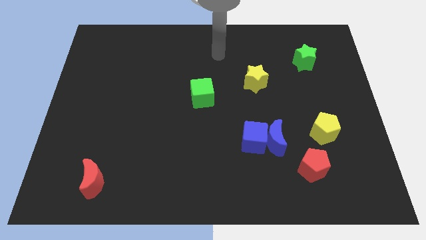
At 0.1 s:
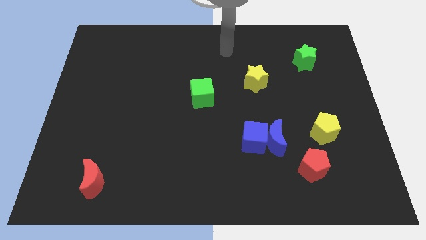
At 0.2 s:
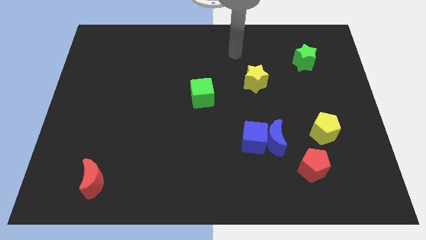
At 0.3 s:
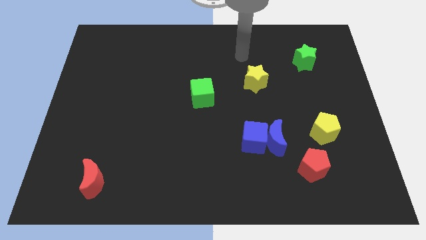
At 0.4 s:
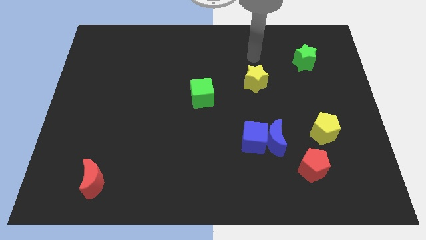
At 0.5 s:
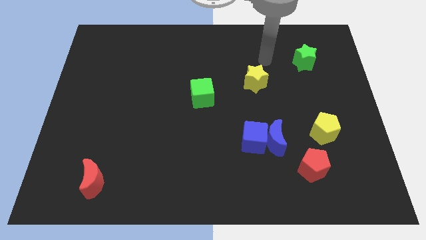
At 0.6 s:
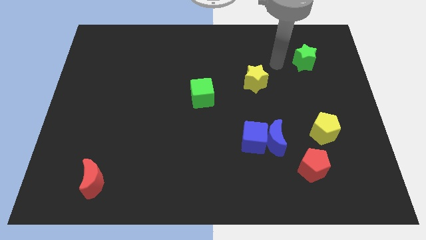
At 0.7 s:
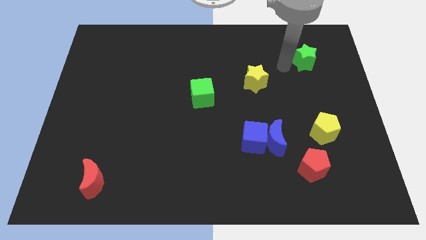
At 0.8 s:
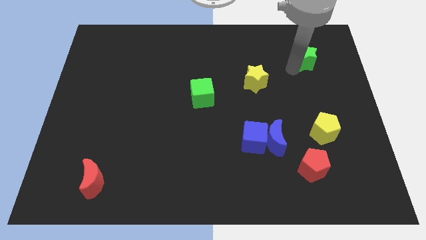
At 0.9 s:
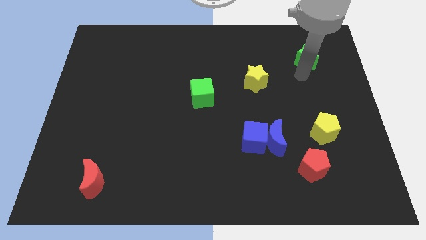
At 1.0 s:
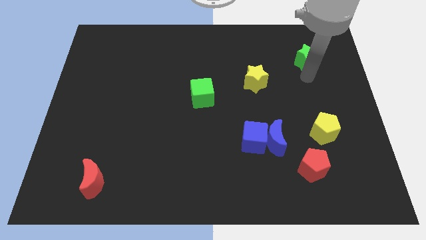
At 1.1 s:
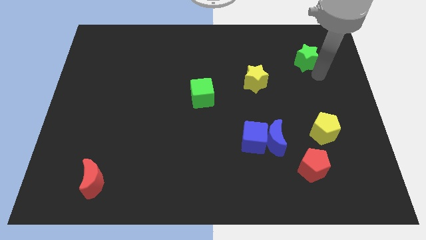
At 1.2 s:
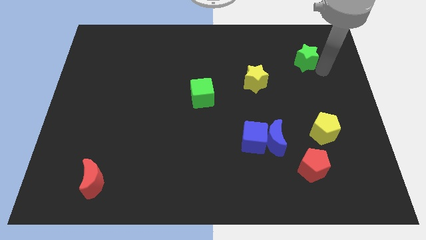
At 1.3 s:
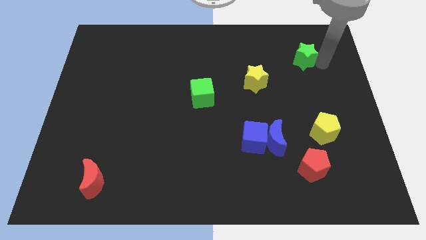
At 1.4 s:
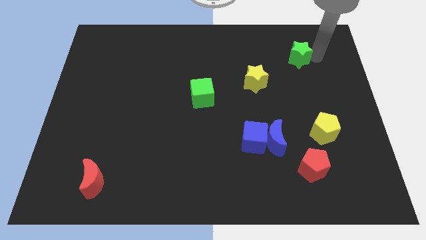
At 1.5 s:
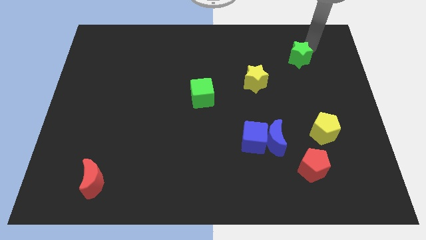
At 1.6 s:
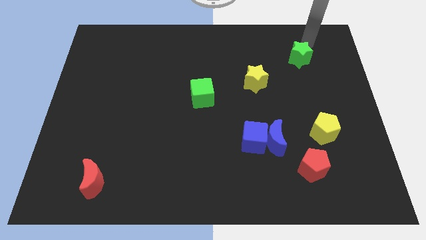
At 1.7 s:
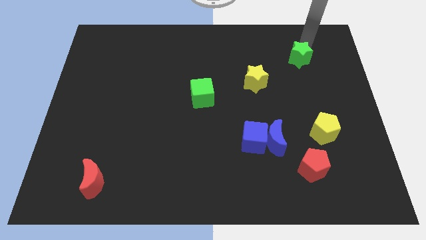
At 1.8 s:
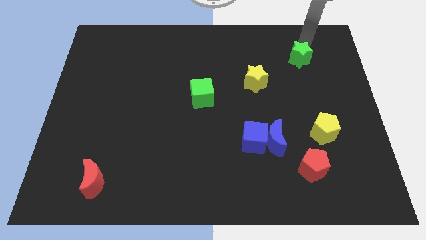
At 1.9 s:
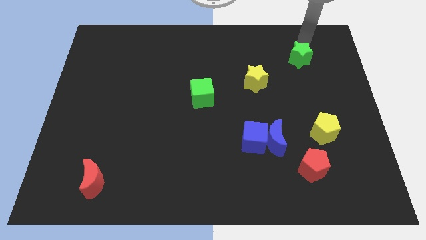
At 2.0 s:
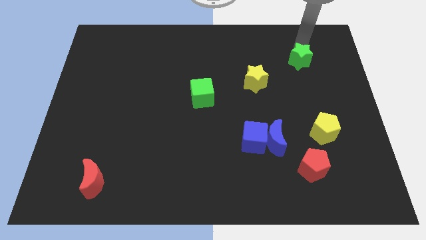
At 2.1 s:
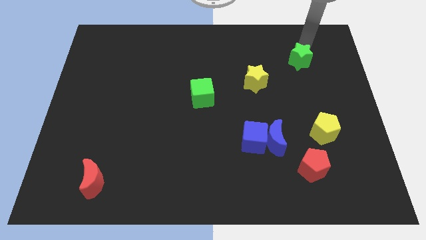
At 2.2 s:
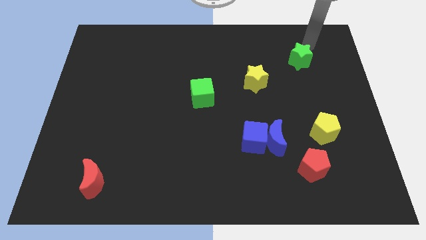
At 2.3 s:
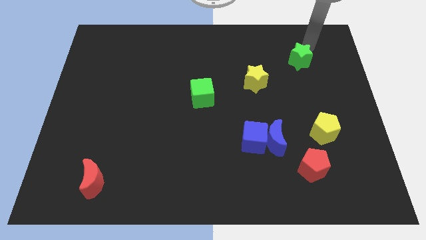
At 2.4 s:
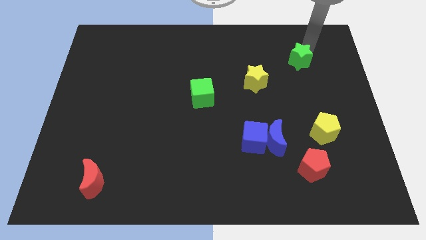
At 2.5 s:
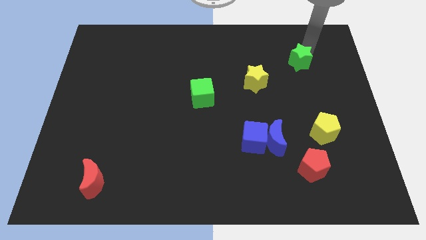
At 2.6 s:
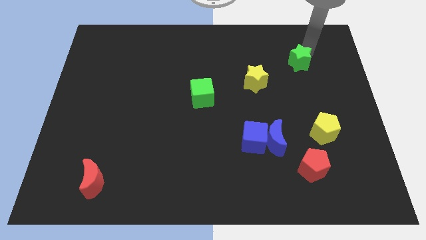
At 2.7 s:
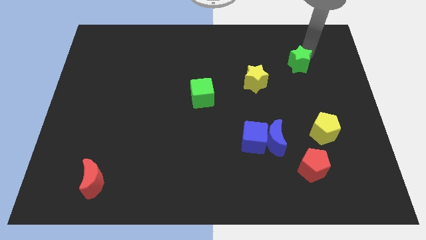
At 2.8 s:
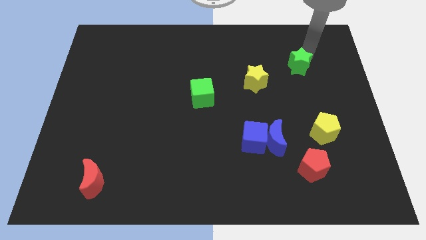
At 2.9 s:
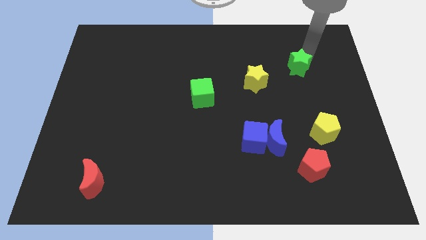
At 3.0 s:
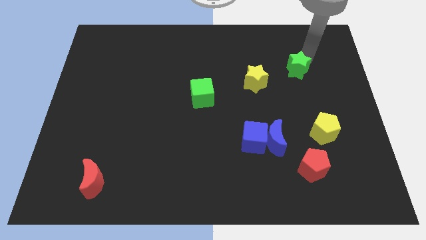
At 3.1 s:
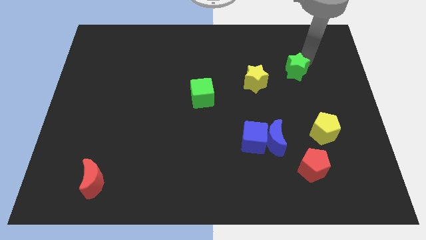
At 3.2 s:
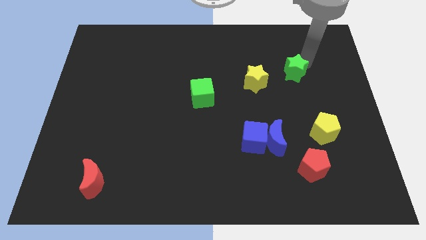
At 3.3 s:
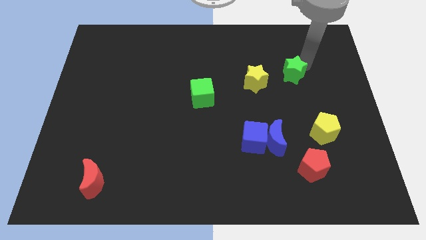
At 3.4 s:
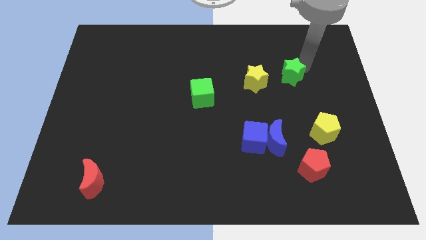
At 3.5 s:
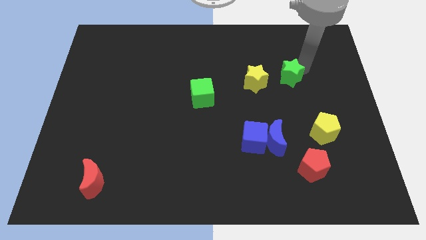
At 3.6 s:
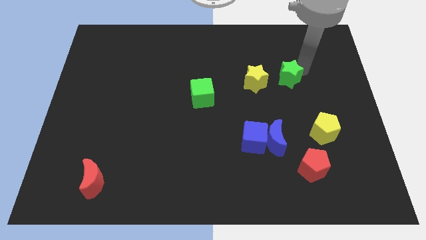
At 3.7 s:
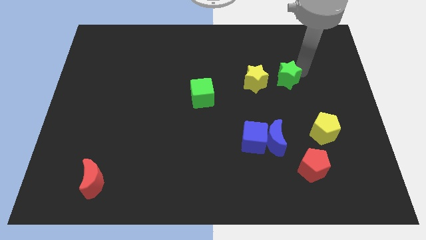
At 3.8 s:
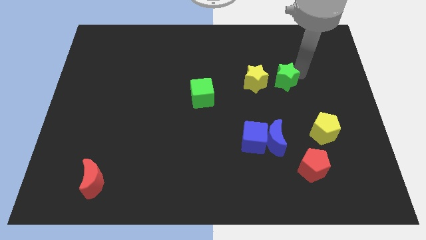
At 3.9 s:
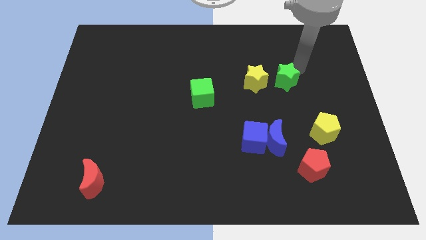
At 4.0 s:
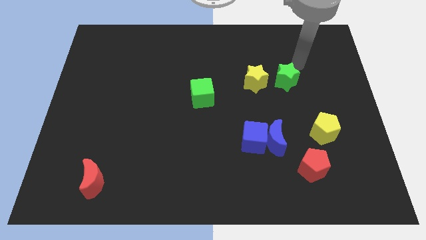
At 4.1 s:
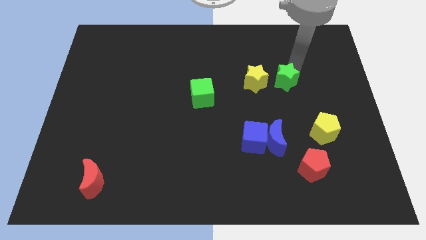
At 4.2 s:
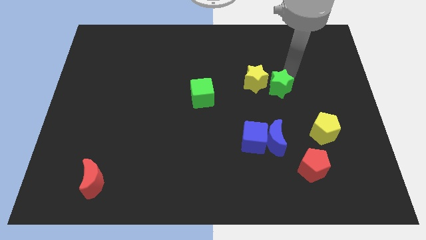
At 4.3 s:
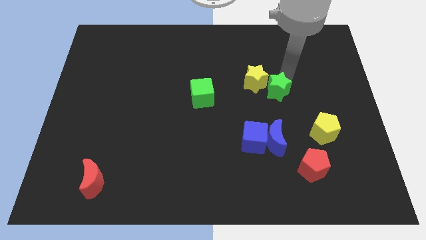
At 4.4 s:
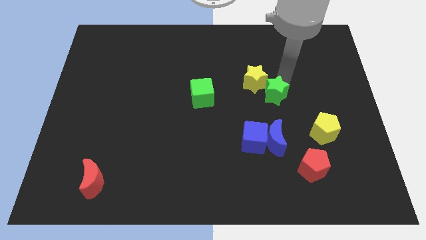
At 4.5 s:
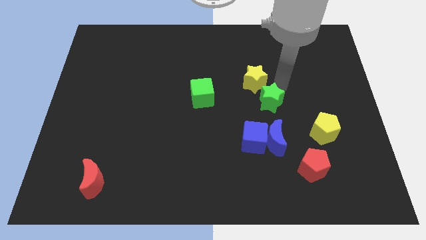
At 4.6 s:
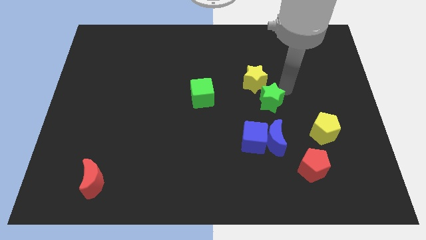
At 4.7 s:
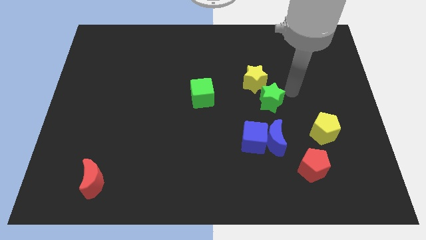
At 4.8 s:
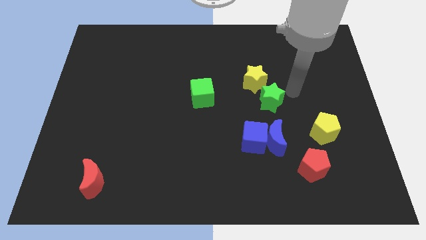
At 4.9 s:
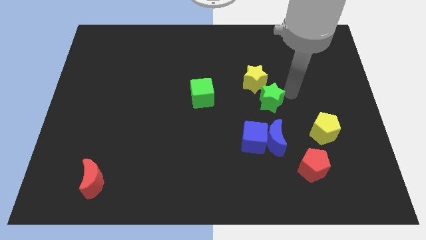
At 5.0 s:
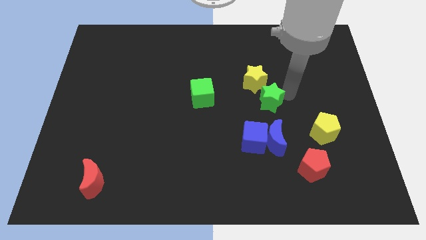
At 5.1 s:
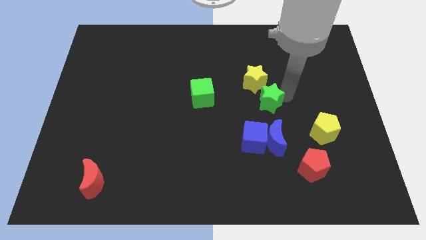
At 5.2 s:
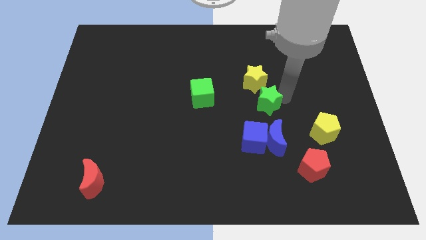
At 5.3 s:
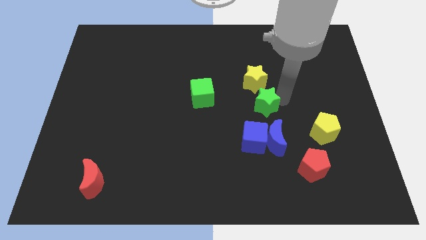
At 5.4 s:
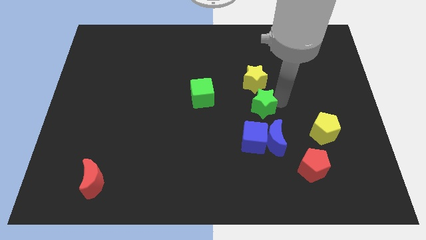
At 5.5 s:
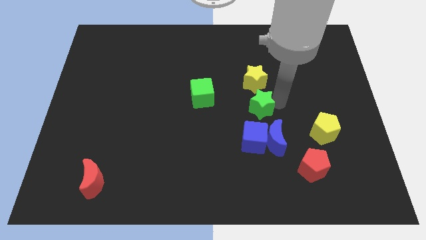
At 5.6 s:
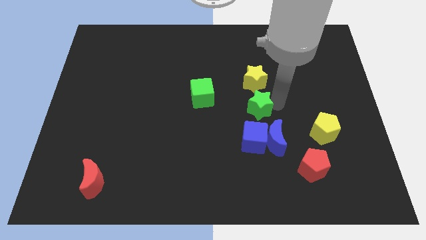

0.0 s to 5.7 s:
push the green star down and then to the left

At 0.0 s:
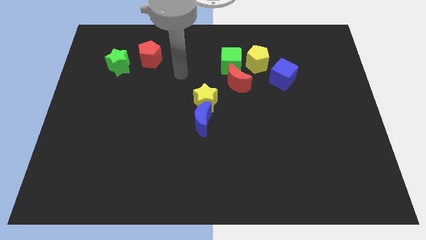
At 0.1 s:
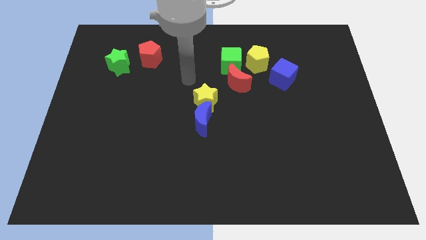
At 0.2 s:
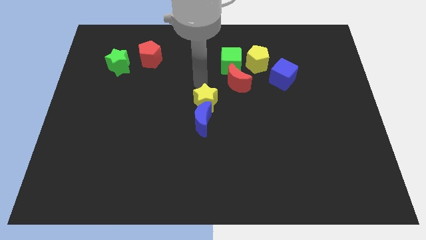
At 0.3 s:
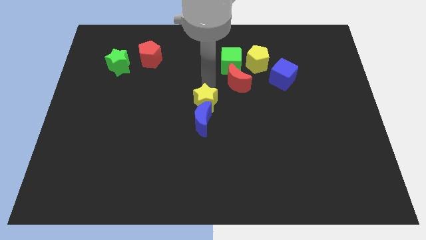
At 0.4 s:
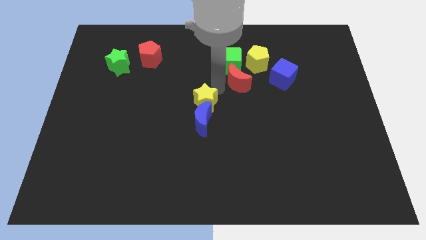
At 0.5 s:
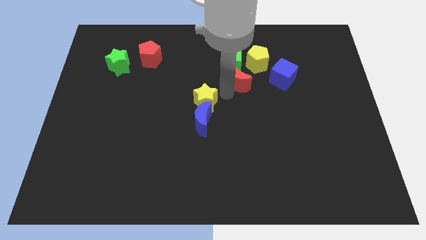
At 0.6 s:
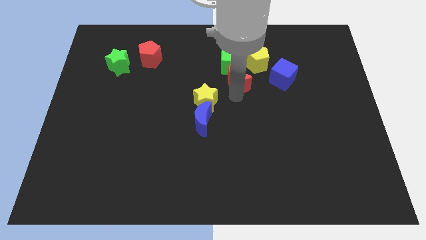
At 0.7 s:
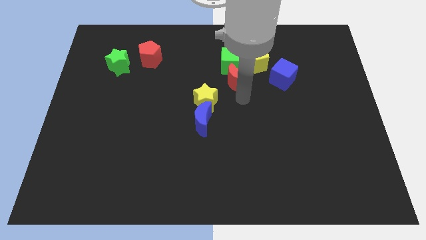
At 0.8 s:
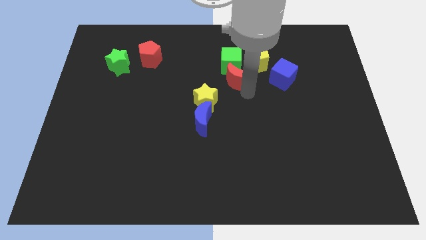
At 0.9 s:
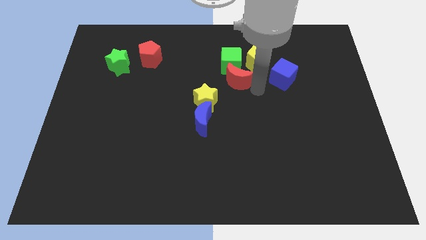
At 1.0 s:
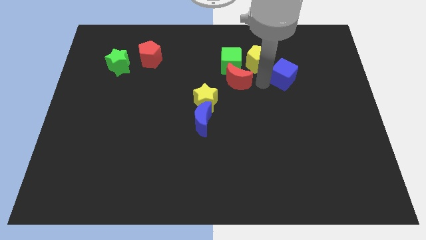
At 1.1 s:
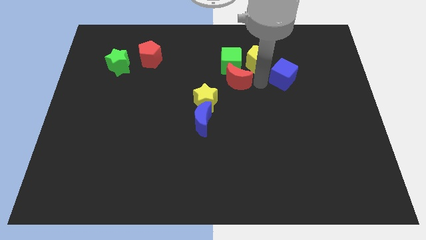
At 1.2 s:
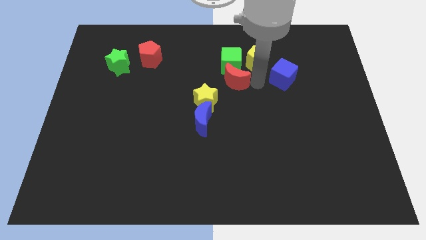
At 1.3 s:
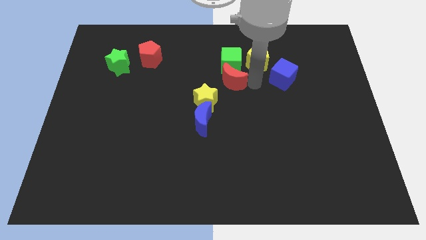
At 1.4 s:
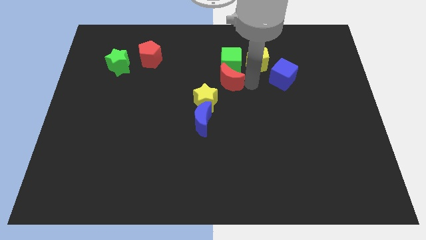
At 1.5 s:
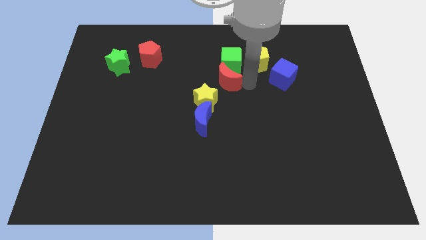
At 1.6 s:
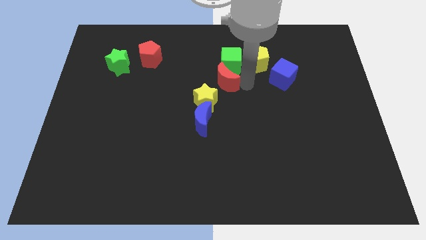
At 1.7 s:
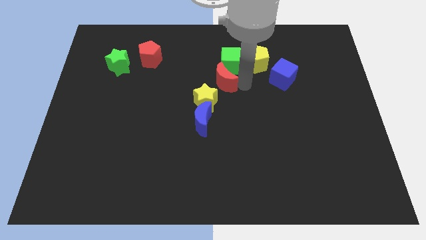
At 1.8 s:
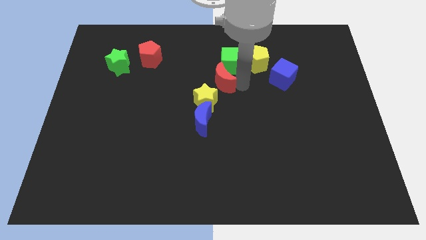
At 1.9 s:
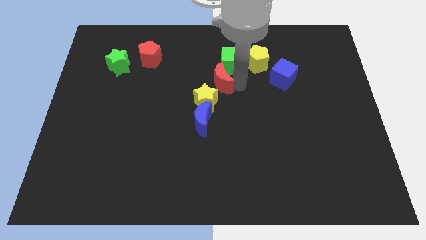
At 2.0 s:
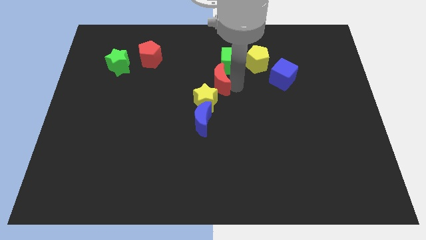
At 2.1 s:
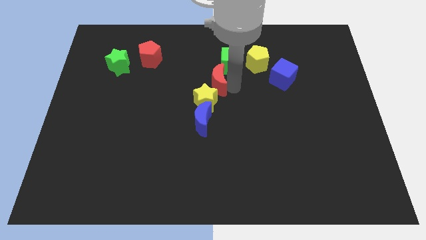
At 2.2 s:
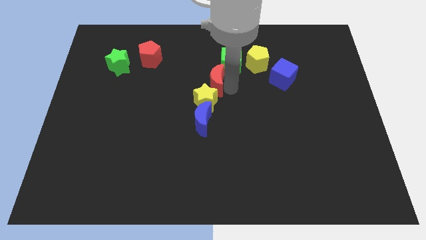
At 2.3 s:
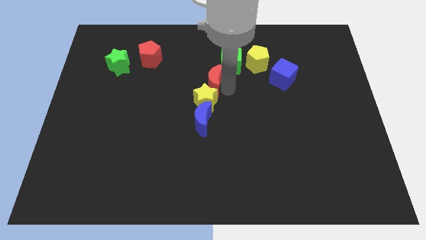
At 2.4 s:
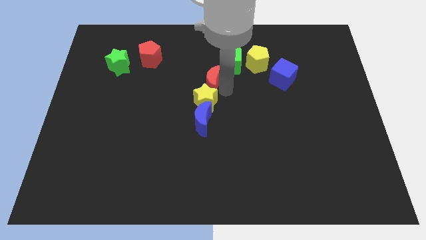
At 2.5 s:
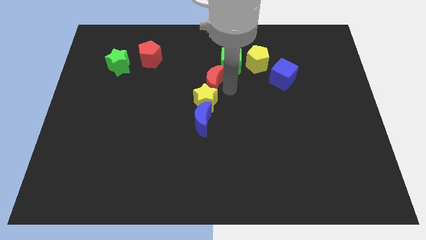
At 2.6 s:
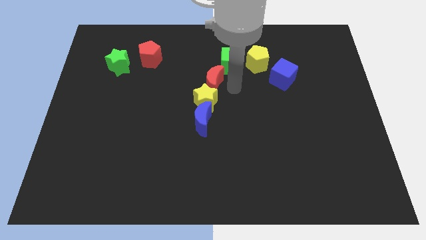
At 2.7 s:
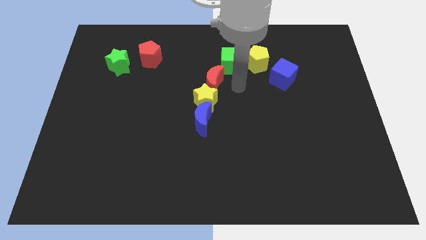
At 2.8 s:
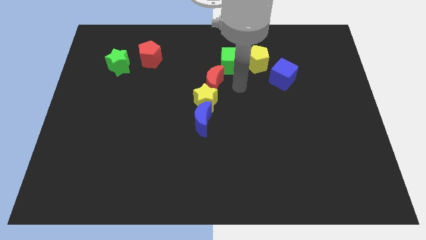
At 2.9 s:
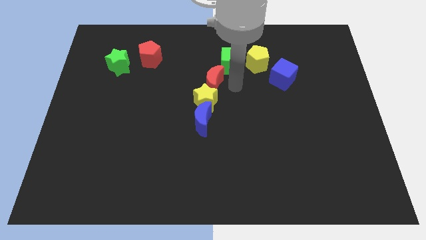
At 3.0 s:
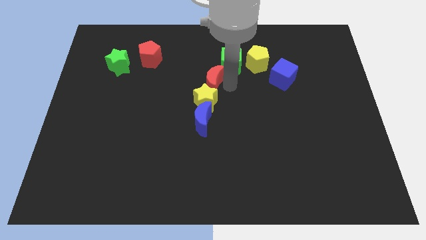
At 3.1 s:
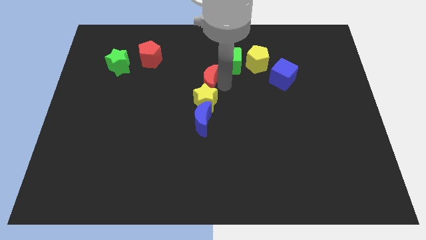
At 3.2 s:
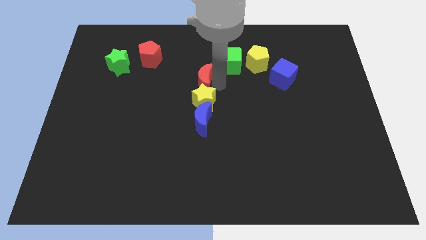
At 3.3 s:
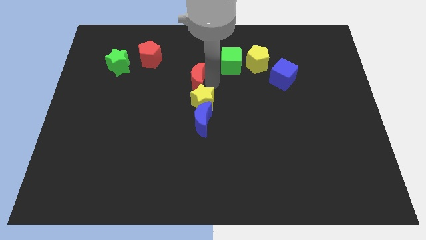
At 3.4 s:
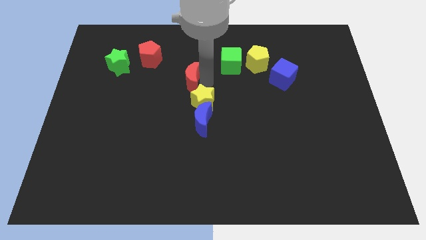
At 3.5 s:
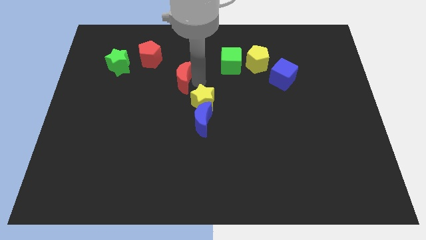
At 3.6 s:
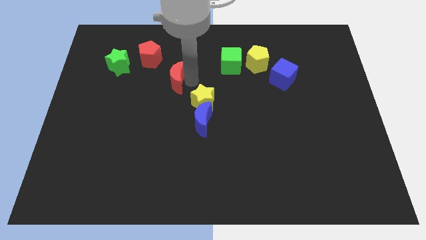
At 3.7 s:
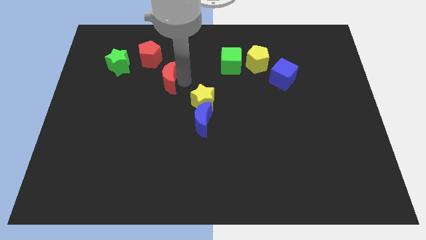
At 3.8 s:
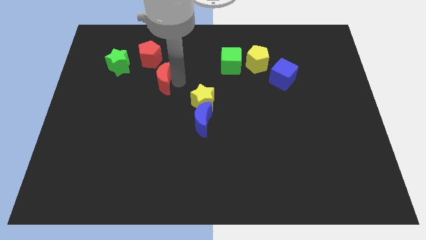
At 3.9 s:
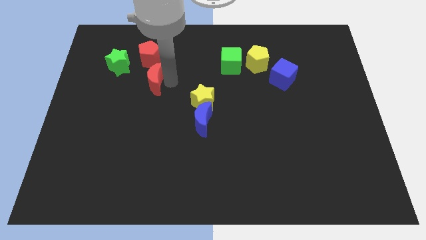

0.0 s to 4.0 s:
move the red moon left
